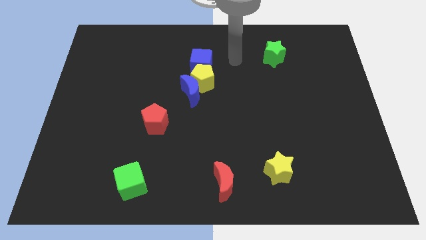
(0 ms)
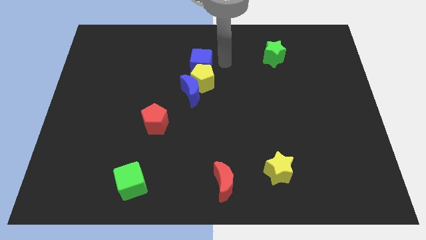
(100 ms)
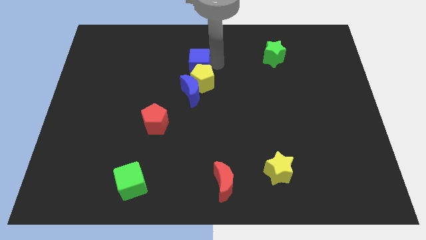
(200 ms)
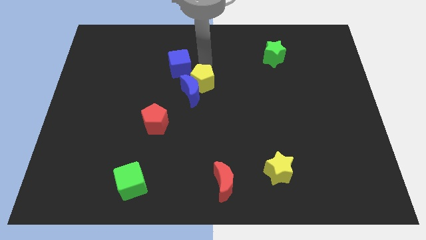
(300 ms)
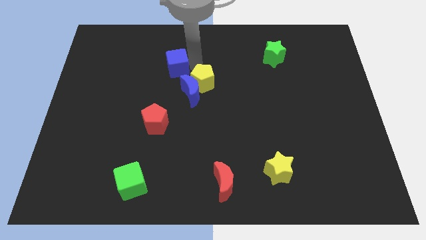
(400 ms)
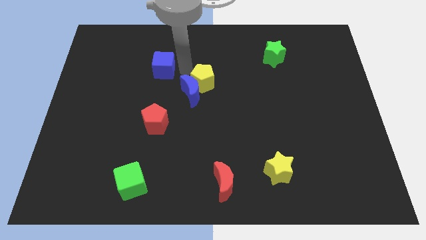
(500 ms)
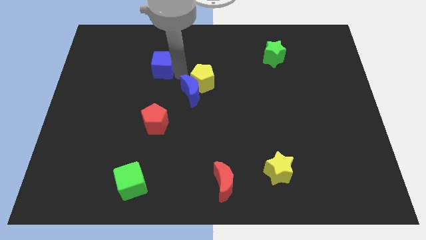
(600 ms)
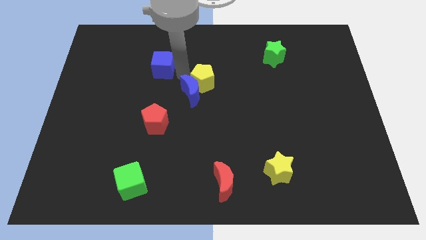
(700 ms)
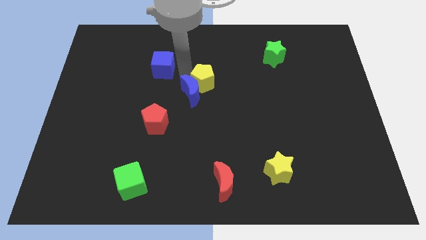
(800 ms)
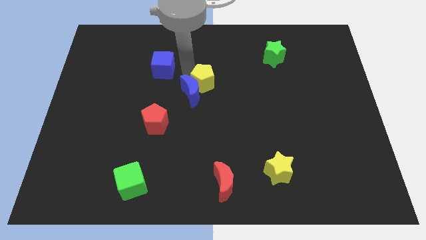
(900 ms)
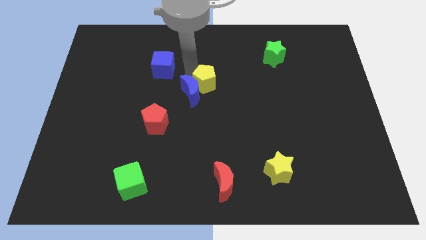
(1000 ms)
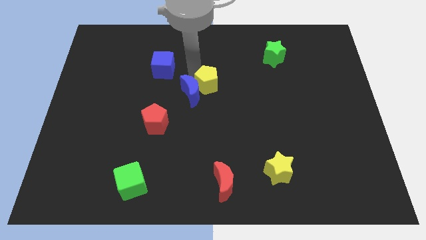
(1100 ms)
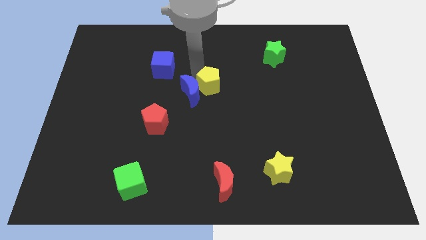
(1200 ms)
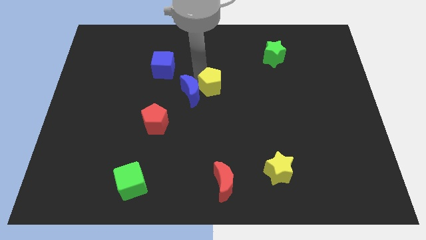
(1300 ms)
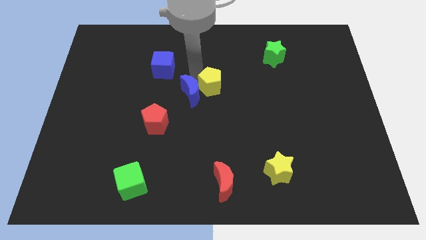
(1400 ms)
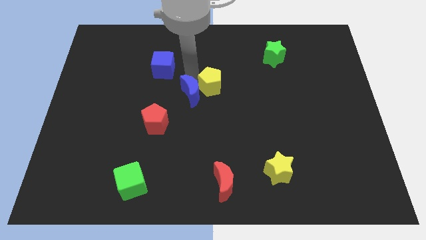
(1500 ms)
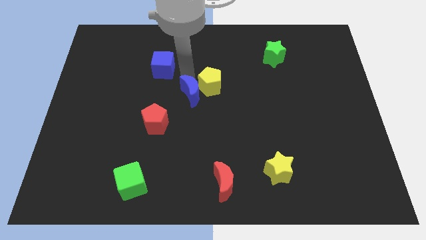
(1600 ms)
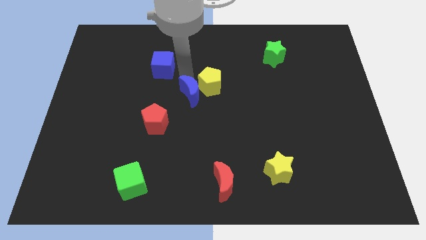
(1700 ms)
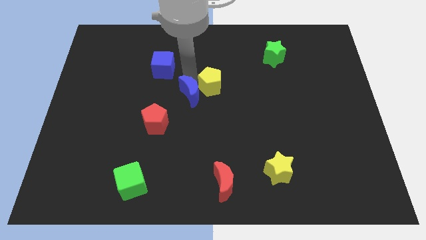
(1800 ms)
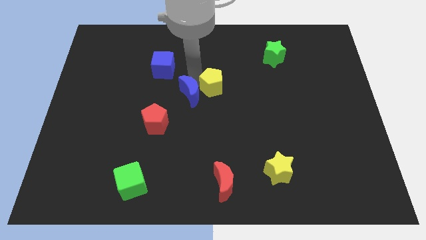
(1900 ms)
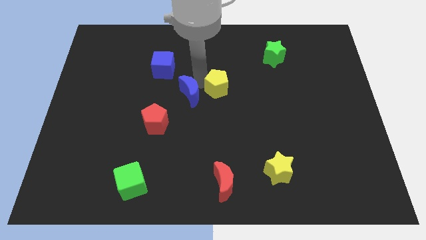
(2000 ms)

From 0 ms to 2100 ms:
pull the yellow pentagon apart from the blue moon and blue cube

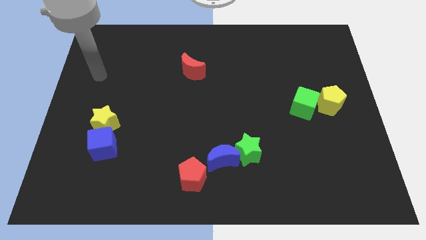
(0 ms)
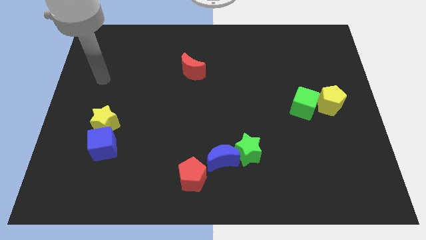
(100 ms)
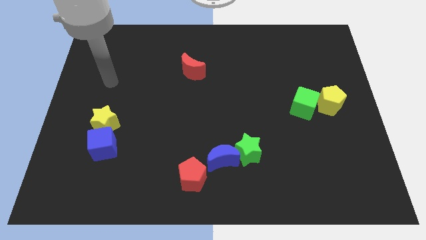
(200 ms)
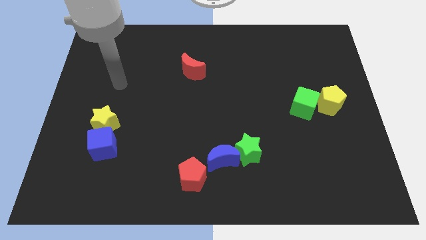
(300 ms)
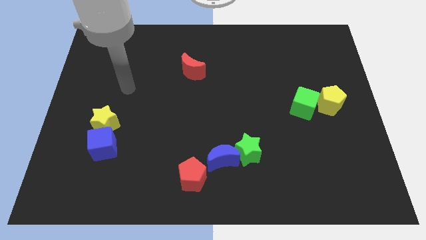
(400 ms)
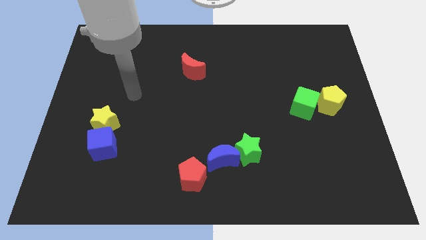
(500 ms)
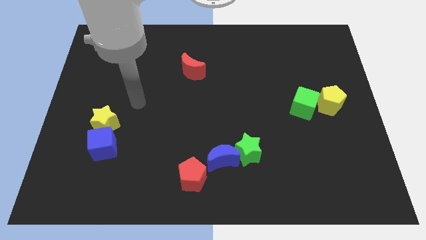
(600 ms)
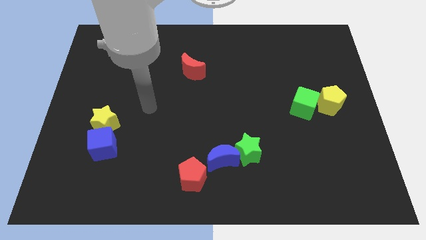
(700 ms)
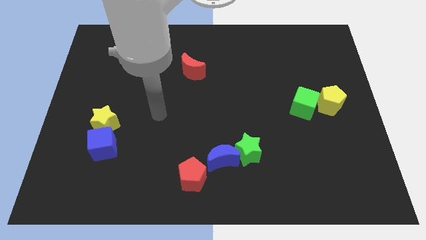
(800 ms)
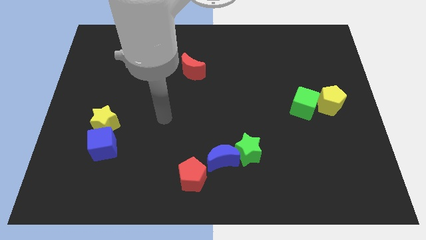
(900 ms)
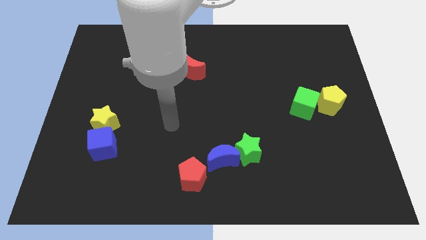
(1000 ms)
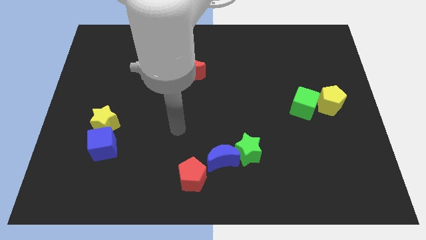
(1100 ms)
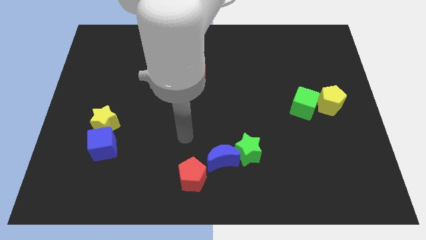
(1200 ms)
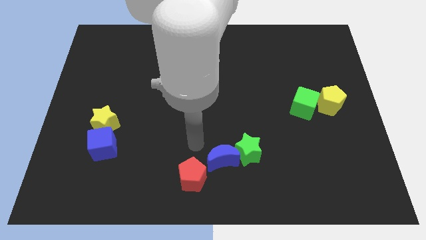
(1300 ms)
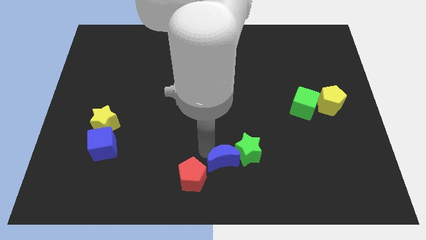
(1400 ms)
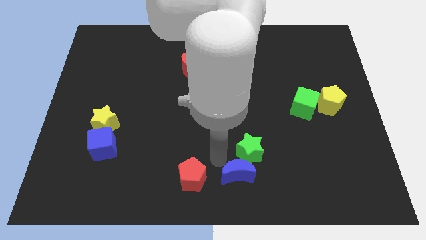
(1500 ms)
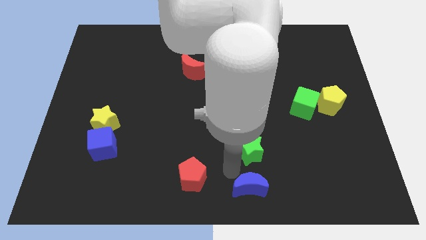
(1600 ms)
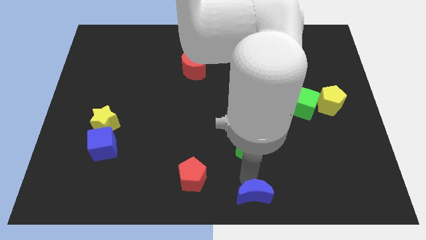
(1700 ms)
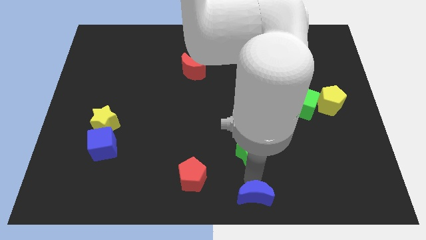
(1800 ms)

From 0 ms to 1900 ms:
pull the green star apart from the blue moon

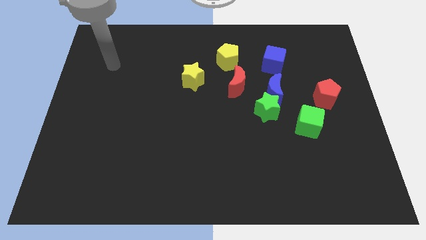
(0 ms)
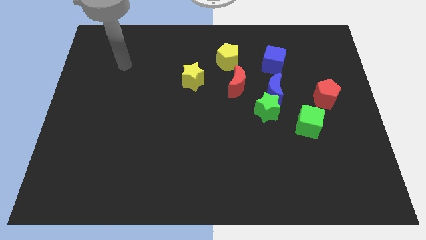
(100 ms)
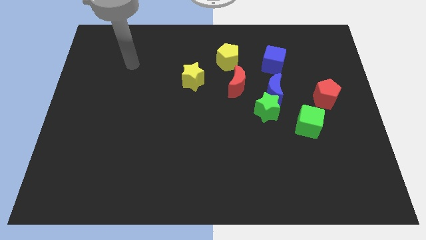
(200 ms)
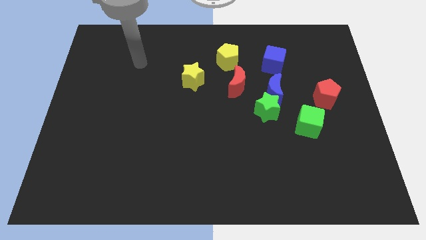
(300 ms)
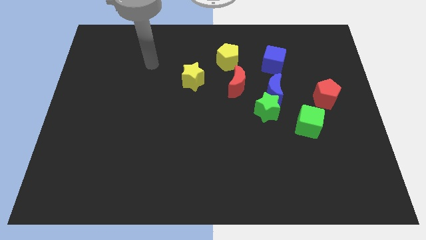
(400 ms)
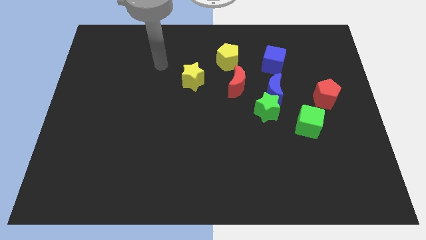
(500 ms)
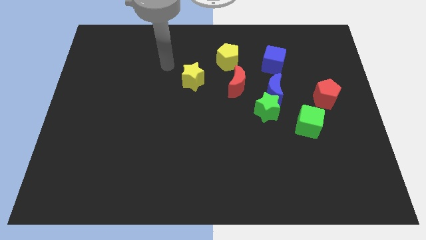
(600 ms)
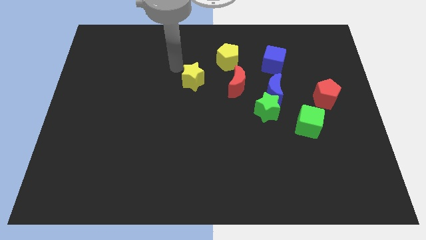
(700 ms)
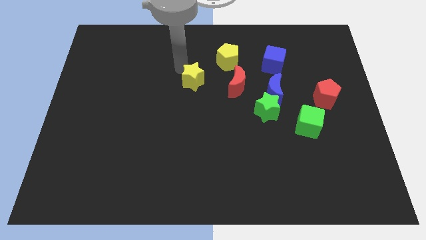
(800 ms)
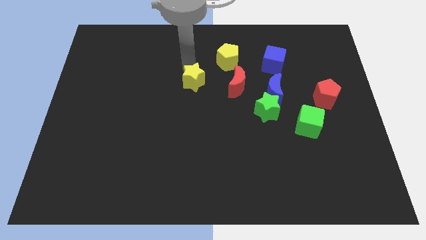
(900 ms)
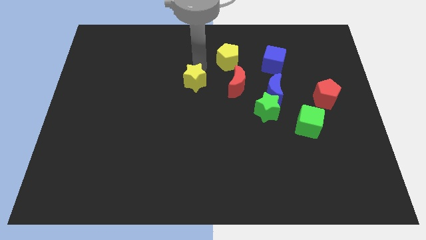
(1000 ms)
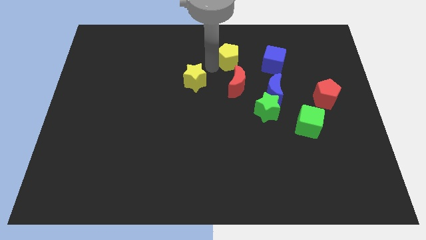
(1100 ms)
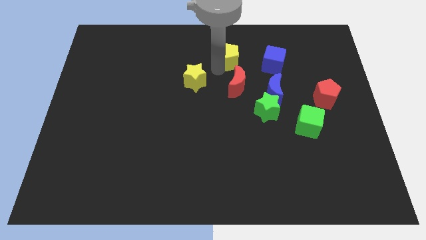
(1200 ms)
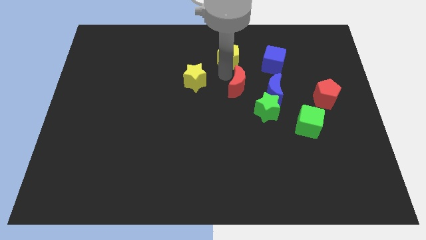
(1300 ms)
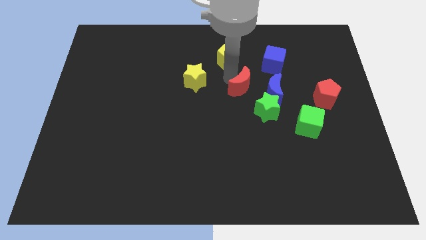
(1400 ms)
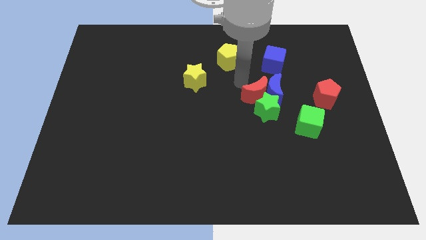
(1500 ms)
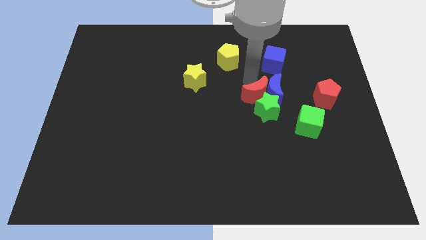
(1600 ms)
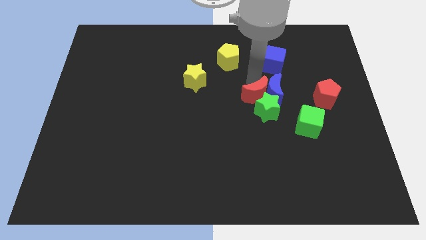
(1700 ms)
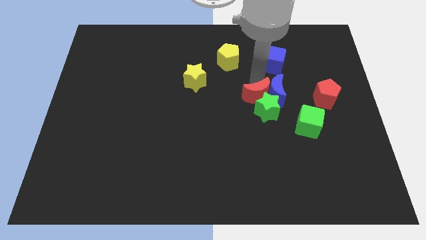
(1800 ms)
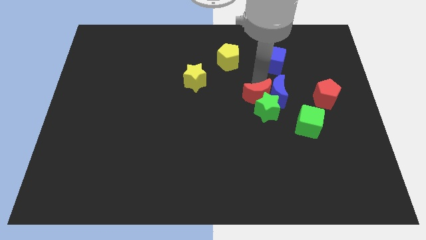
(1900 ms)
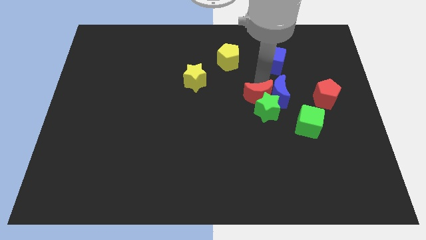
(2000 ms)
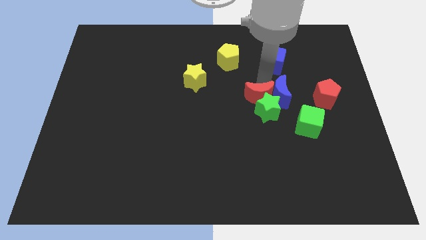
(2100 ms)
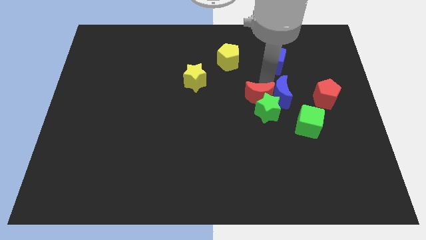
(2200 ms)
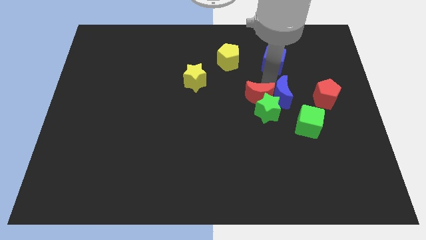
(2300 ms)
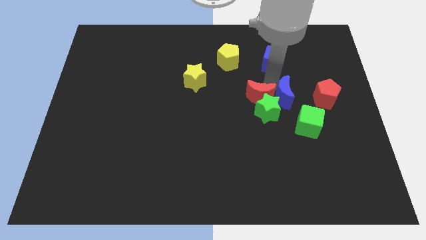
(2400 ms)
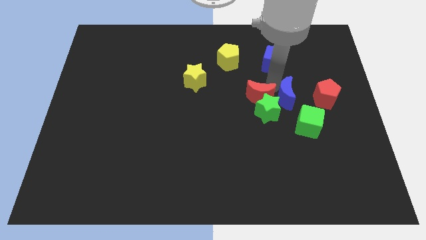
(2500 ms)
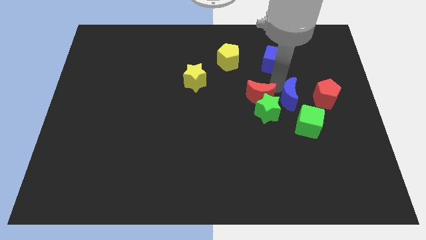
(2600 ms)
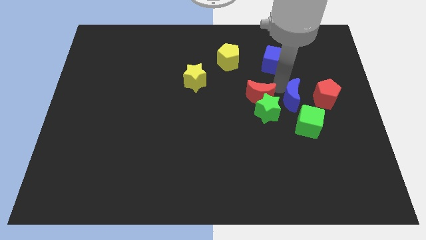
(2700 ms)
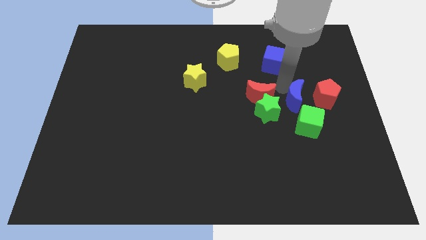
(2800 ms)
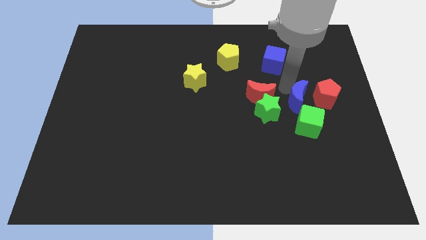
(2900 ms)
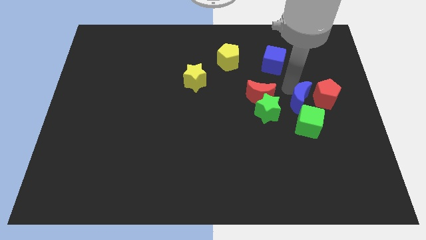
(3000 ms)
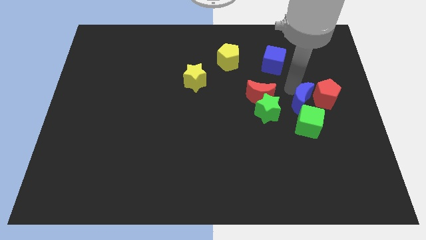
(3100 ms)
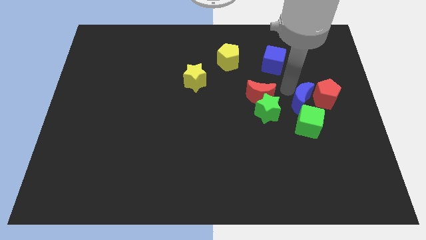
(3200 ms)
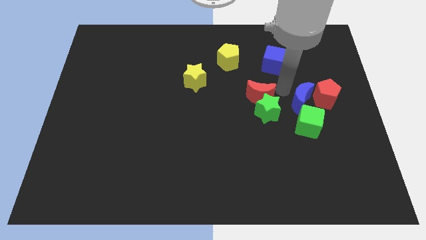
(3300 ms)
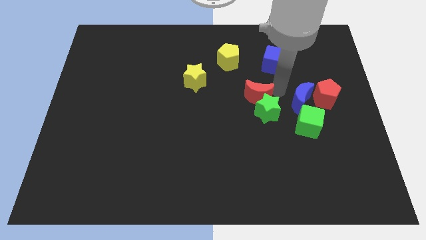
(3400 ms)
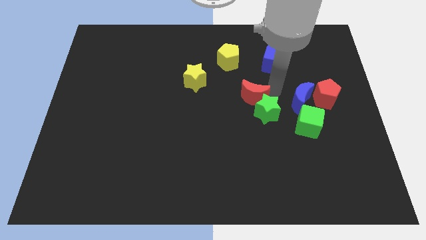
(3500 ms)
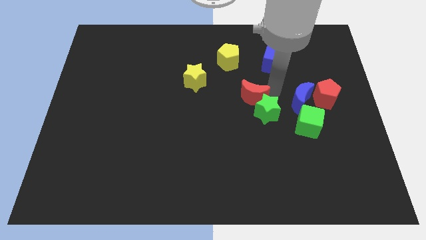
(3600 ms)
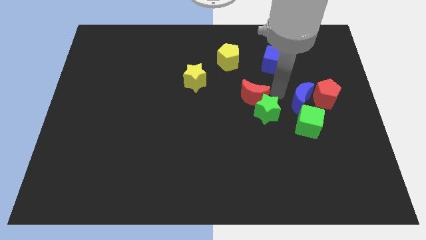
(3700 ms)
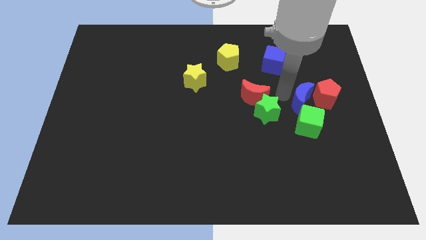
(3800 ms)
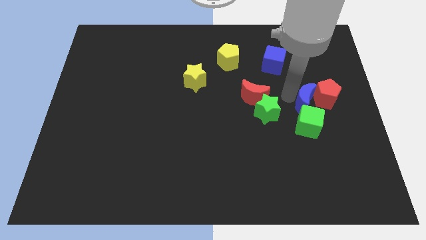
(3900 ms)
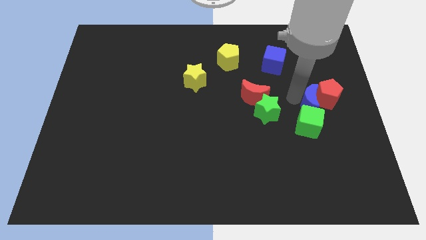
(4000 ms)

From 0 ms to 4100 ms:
separate the blue moon from the group of blocks

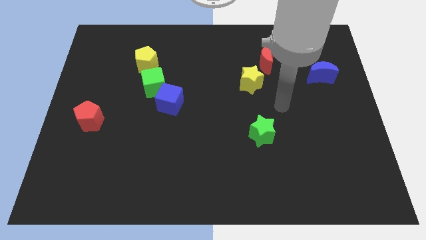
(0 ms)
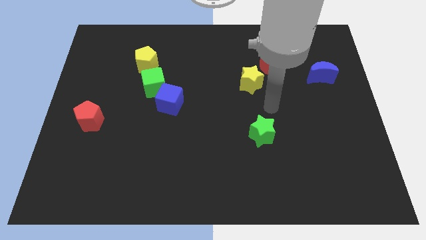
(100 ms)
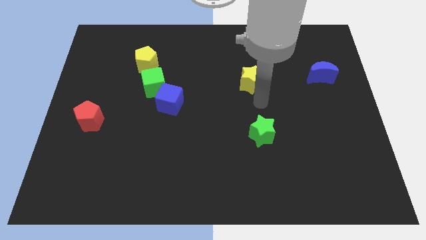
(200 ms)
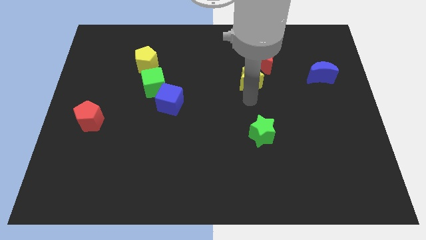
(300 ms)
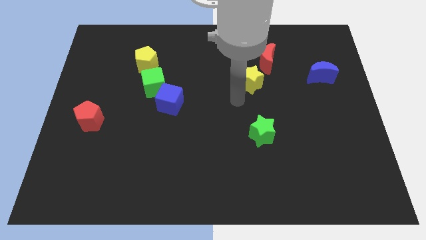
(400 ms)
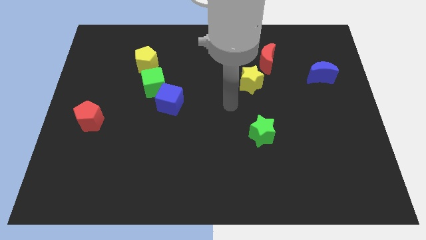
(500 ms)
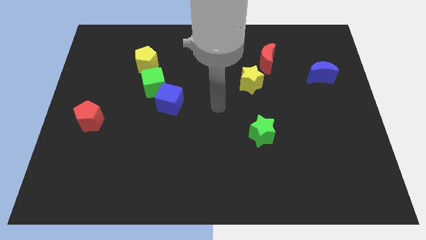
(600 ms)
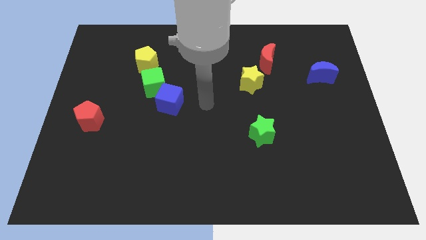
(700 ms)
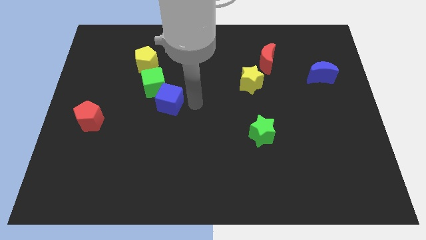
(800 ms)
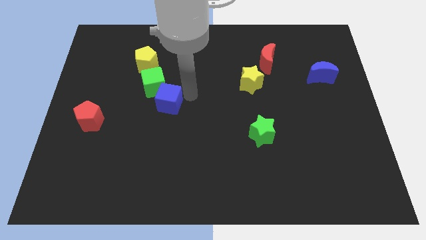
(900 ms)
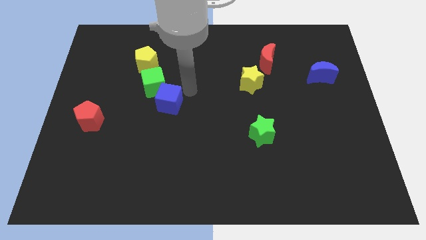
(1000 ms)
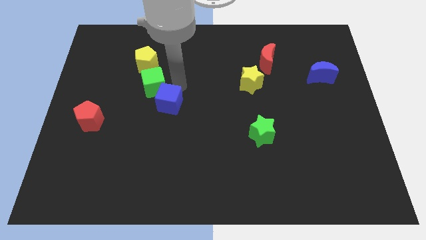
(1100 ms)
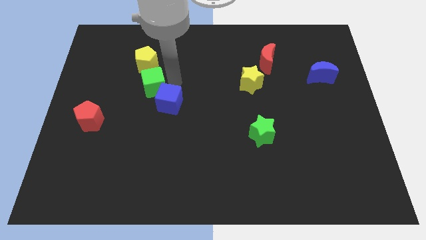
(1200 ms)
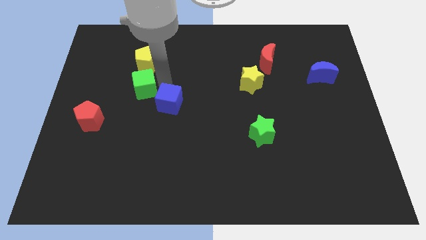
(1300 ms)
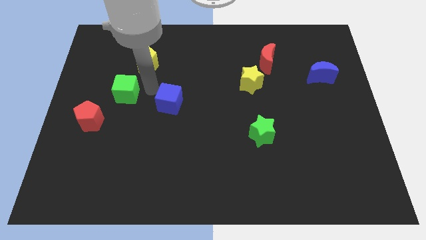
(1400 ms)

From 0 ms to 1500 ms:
move the blue cube away from the green cube
